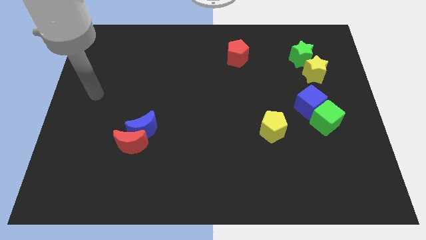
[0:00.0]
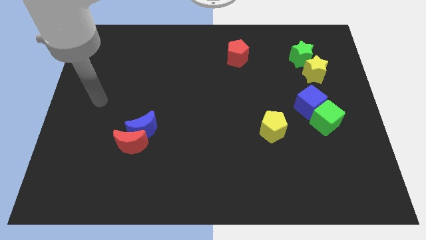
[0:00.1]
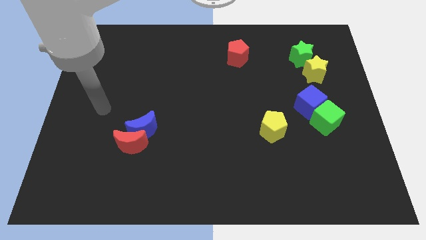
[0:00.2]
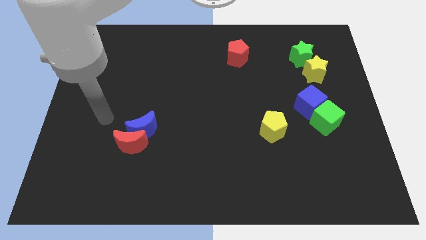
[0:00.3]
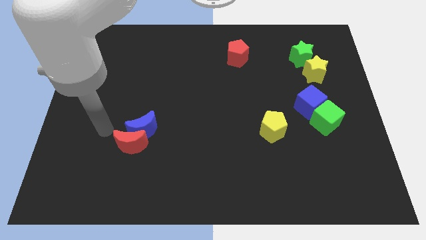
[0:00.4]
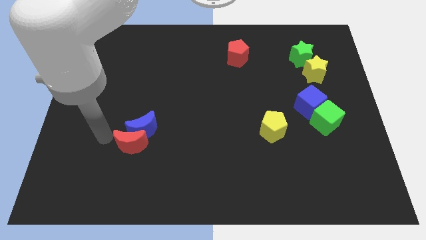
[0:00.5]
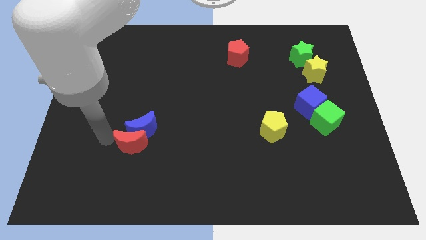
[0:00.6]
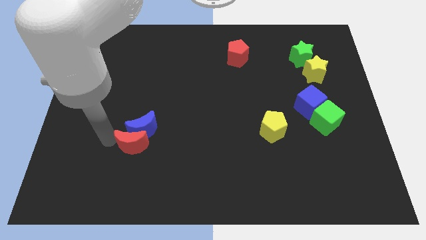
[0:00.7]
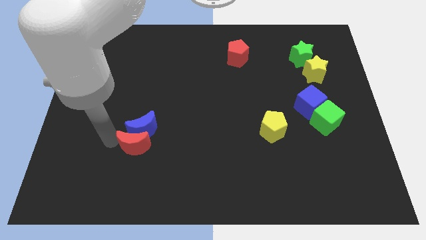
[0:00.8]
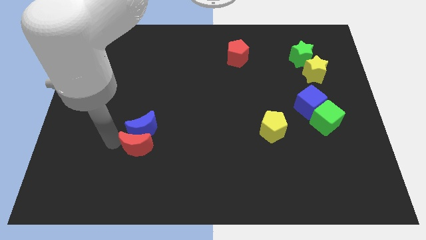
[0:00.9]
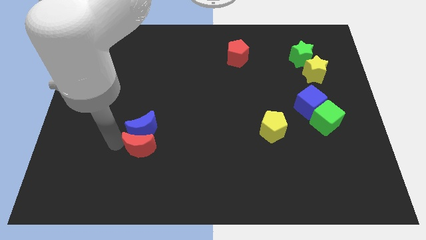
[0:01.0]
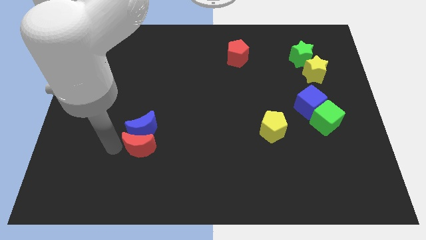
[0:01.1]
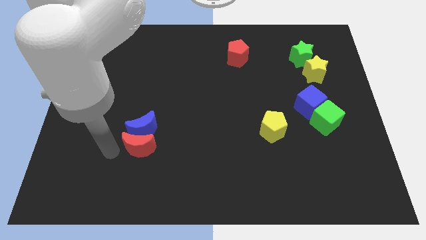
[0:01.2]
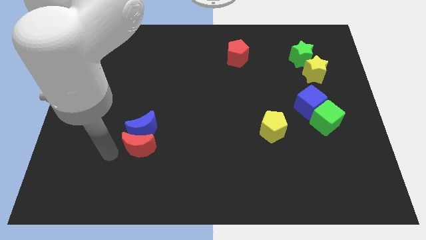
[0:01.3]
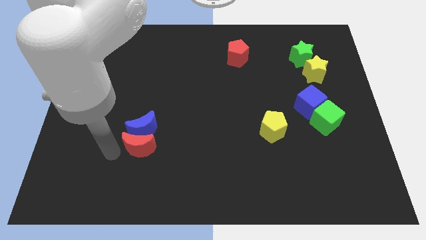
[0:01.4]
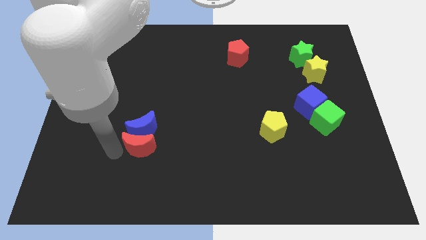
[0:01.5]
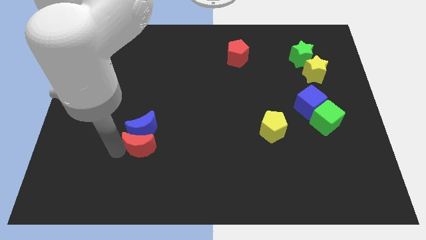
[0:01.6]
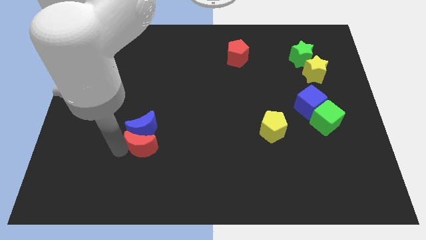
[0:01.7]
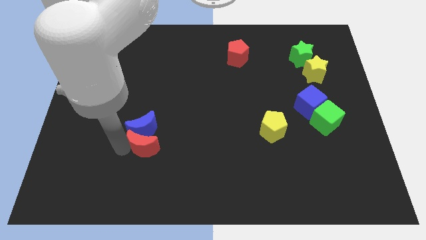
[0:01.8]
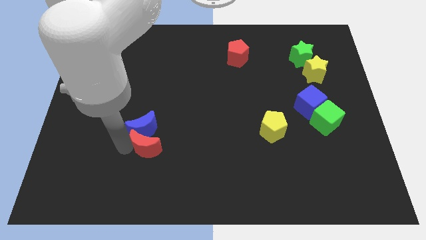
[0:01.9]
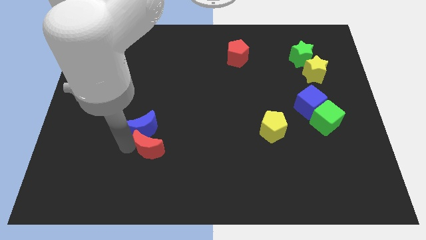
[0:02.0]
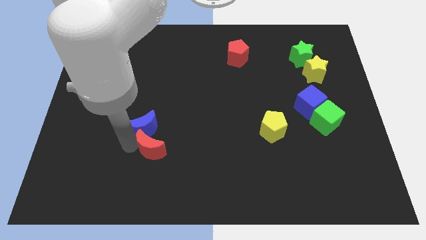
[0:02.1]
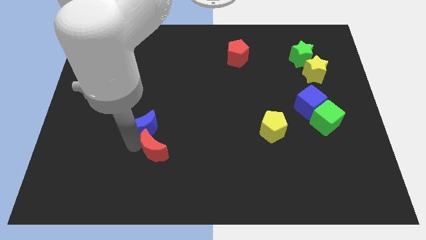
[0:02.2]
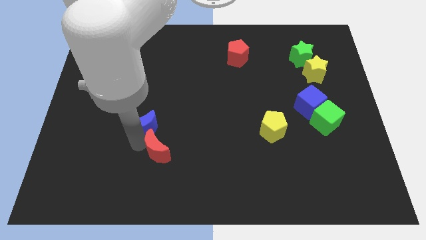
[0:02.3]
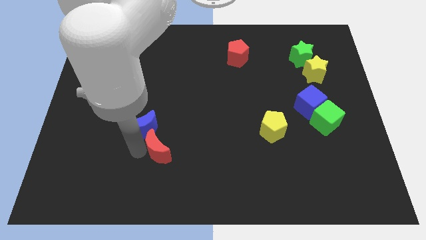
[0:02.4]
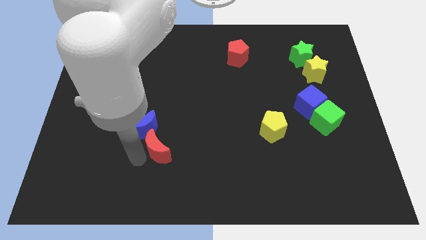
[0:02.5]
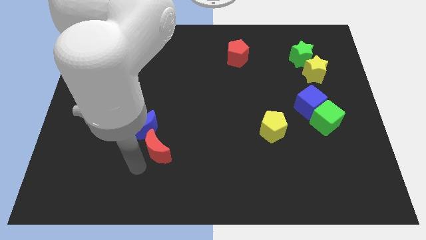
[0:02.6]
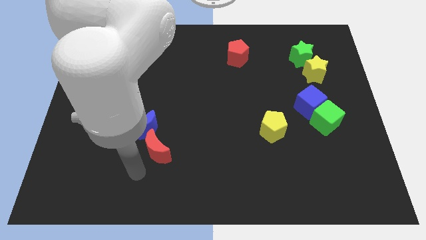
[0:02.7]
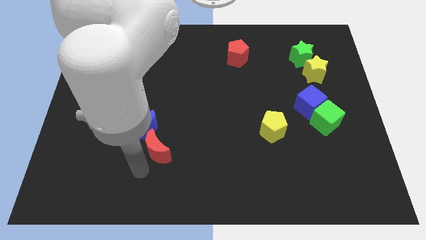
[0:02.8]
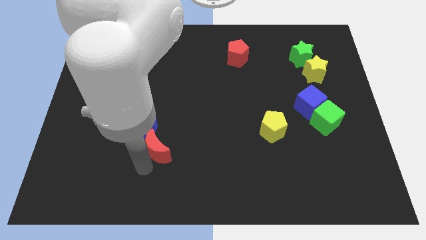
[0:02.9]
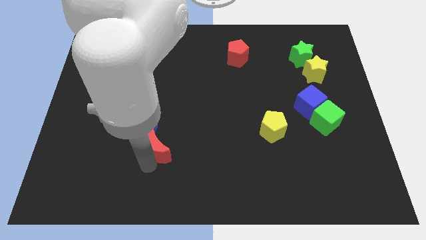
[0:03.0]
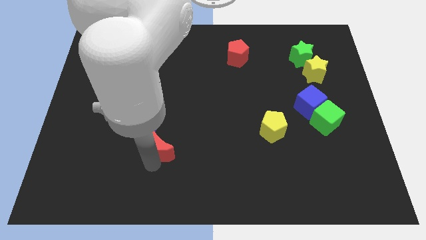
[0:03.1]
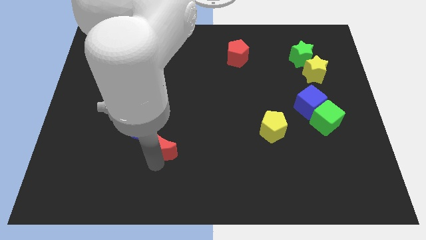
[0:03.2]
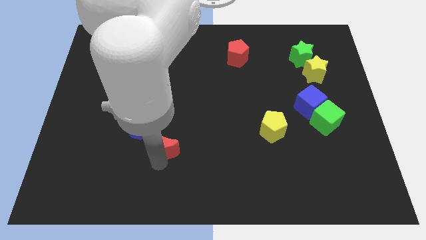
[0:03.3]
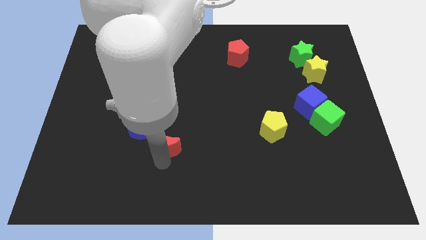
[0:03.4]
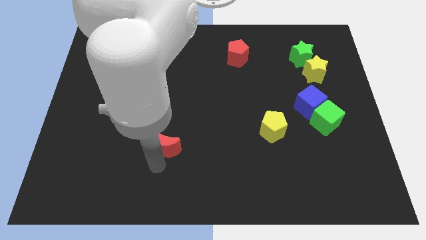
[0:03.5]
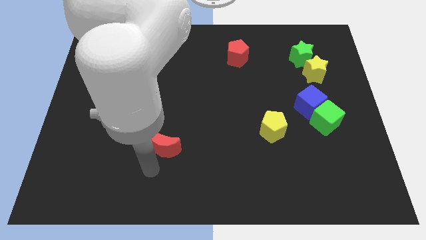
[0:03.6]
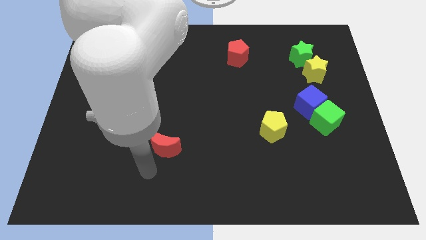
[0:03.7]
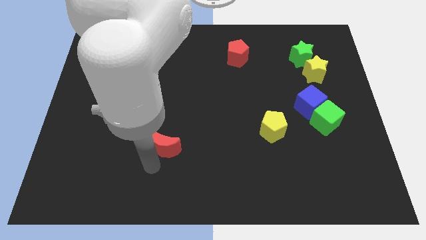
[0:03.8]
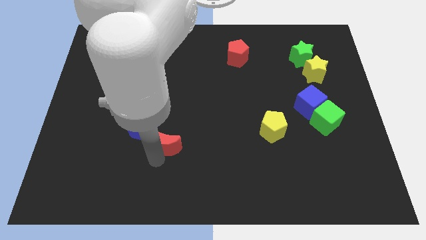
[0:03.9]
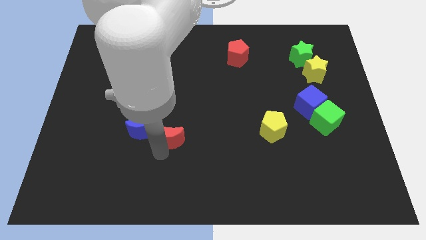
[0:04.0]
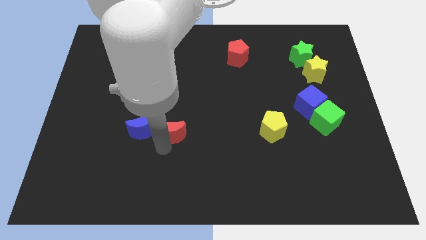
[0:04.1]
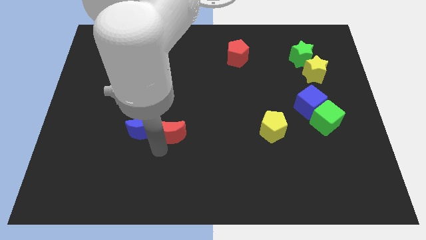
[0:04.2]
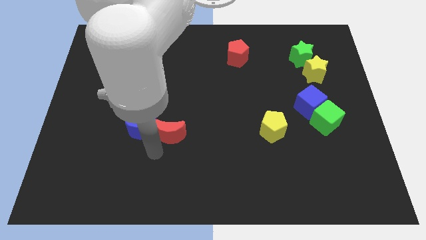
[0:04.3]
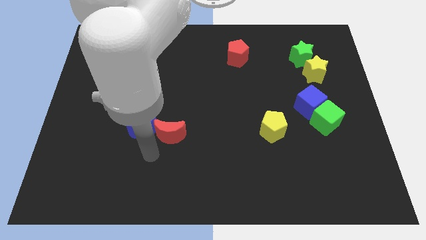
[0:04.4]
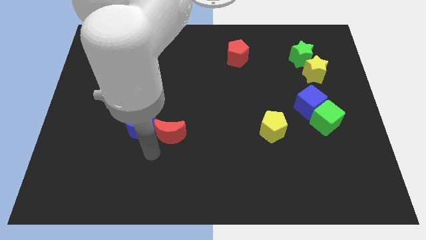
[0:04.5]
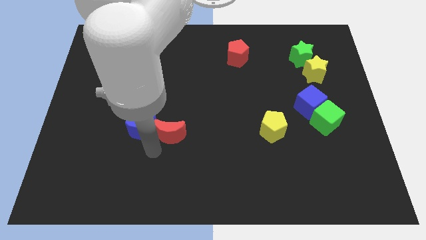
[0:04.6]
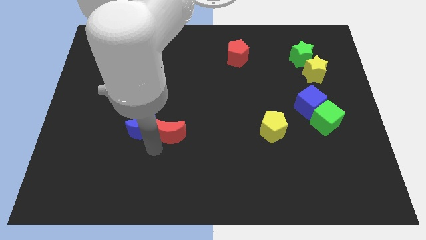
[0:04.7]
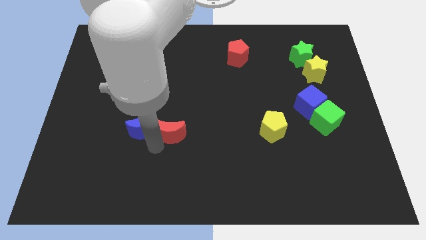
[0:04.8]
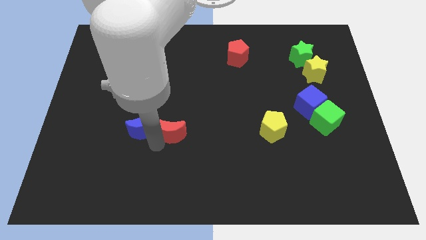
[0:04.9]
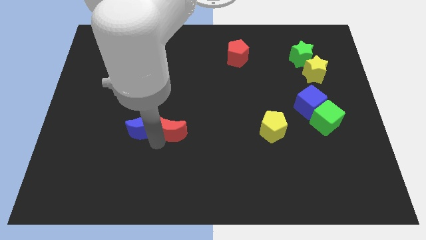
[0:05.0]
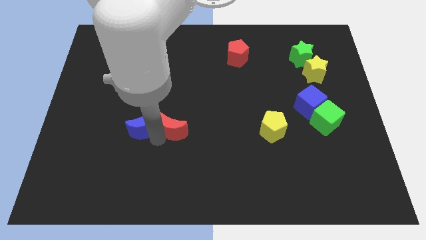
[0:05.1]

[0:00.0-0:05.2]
move the red moon to the middle

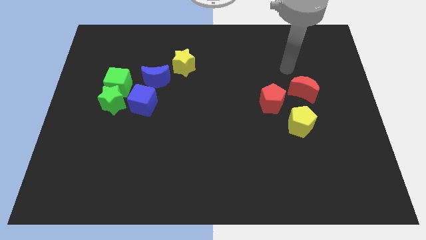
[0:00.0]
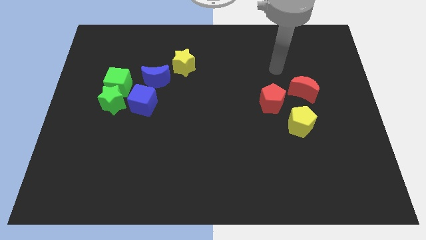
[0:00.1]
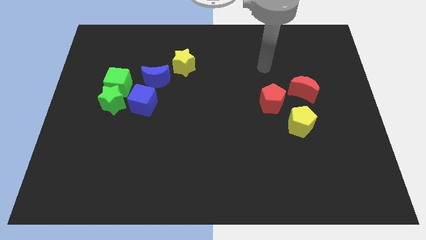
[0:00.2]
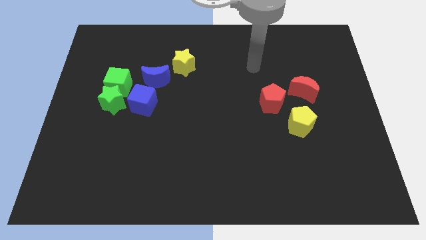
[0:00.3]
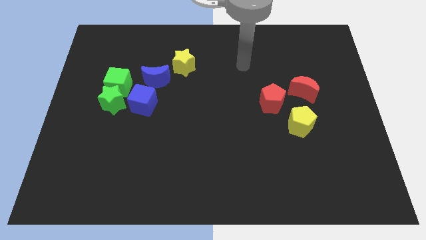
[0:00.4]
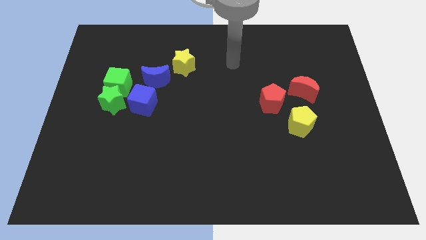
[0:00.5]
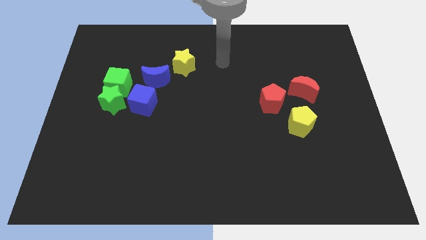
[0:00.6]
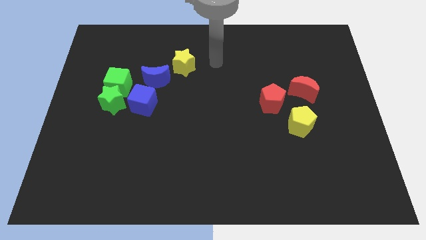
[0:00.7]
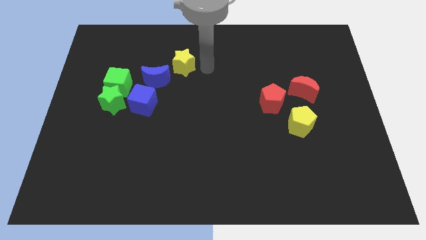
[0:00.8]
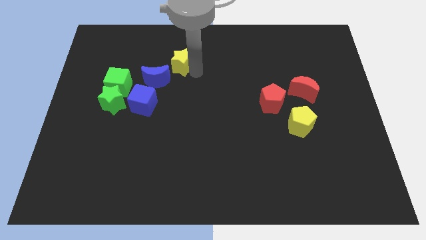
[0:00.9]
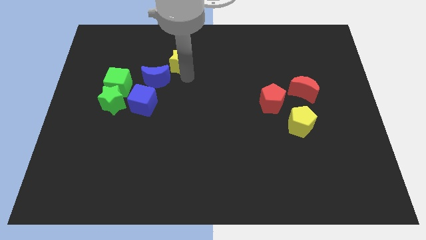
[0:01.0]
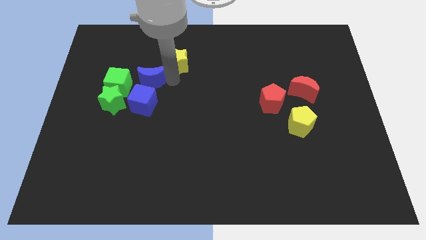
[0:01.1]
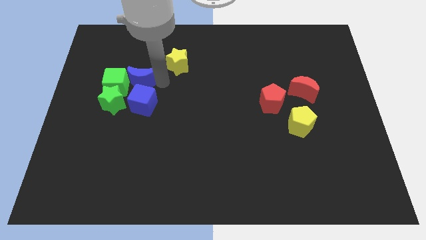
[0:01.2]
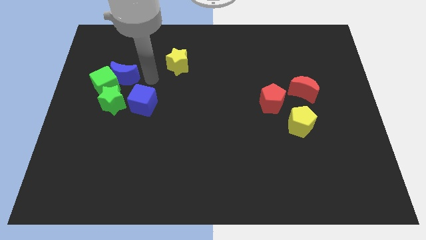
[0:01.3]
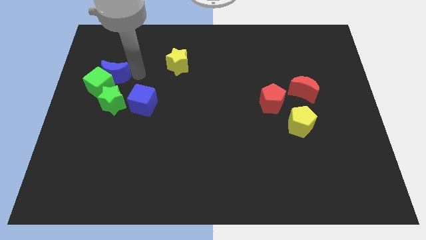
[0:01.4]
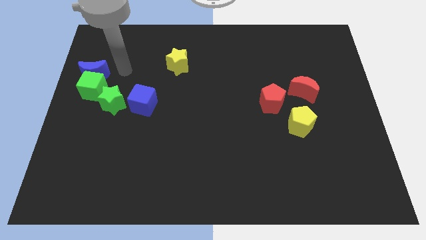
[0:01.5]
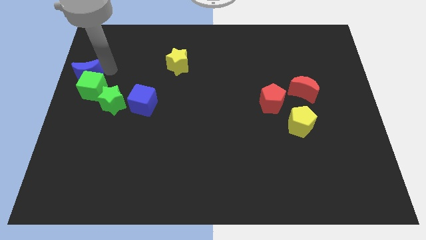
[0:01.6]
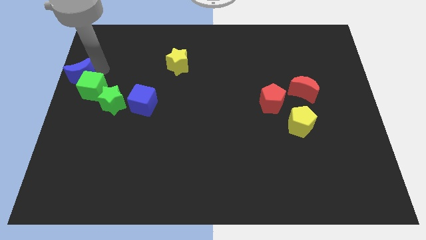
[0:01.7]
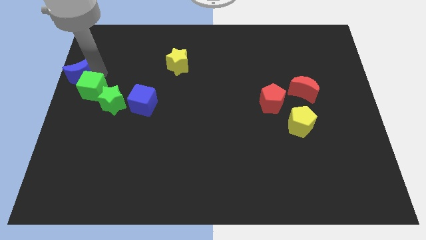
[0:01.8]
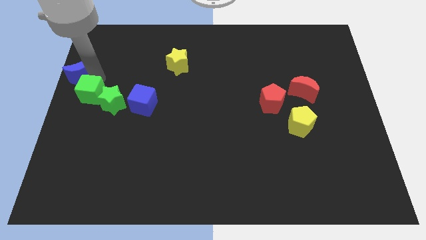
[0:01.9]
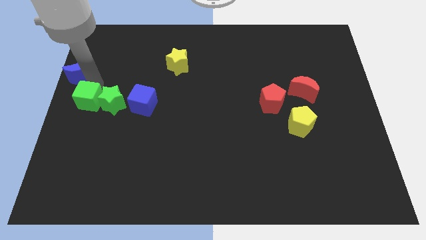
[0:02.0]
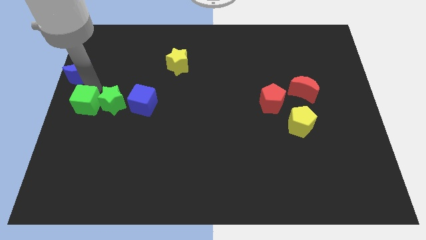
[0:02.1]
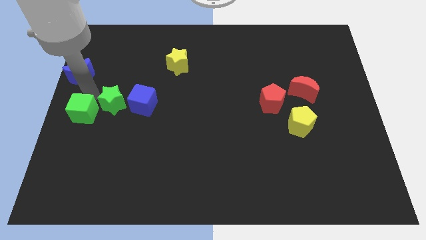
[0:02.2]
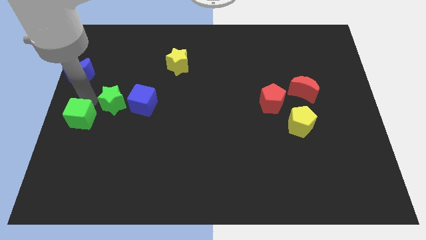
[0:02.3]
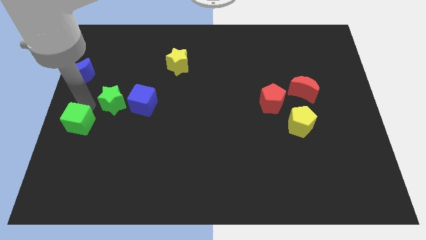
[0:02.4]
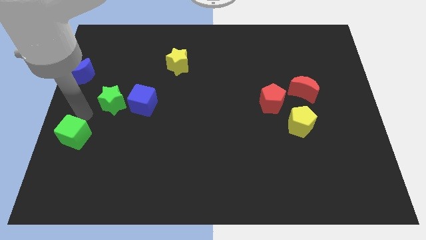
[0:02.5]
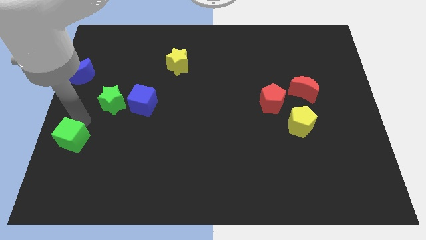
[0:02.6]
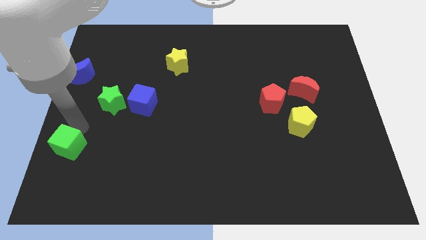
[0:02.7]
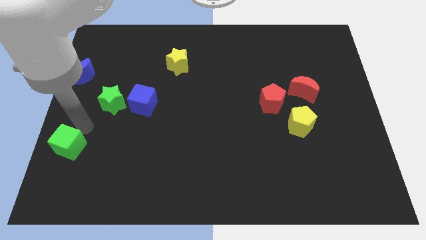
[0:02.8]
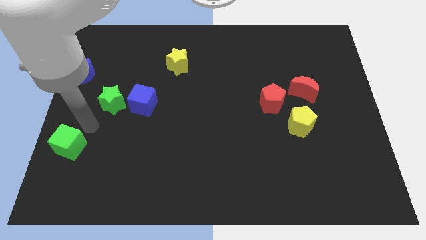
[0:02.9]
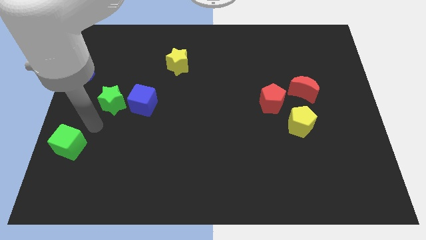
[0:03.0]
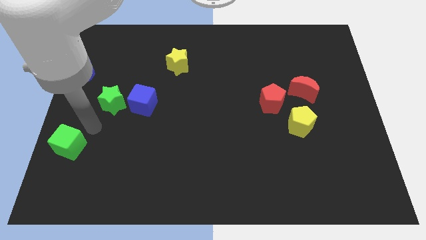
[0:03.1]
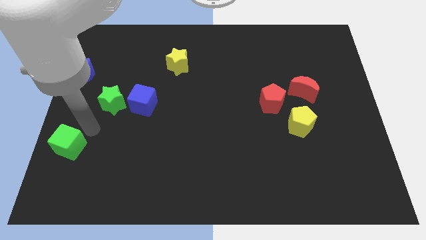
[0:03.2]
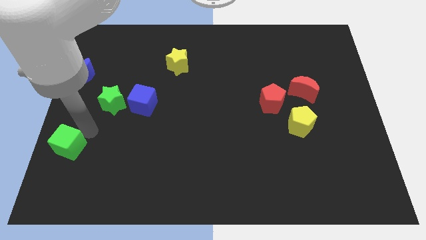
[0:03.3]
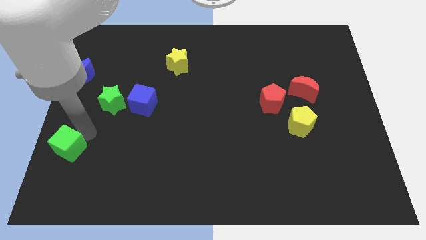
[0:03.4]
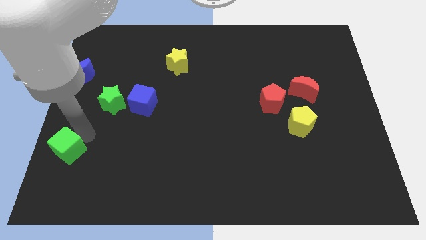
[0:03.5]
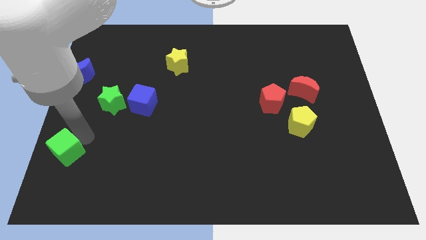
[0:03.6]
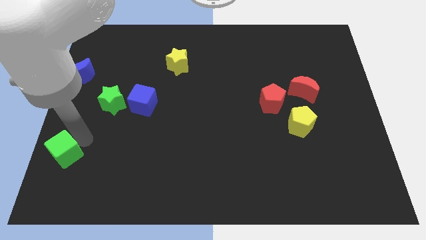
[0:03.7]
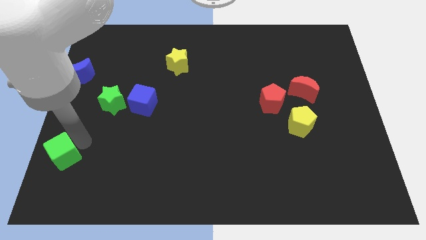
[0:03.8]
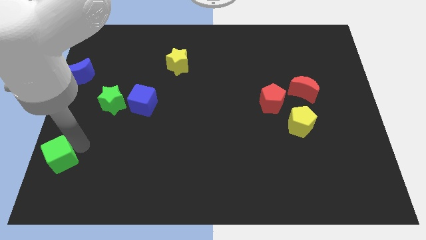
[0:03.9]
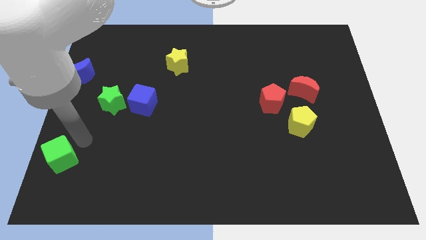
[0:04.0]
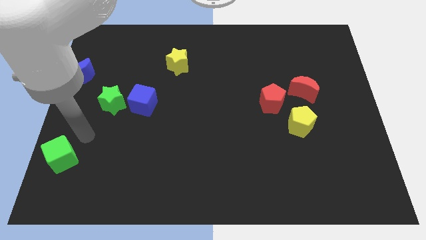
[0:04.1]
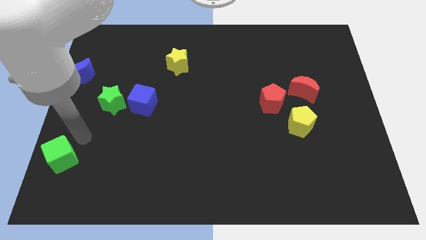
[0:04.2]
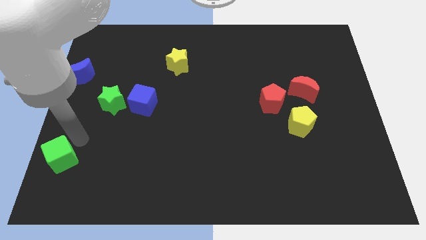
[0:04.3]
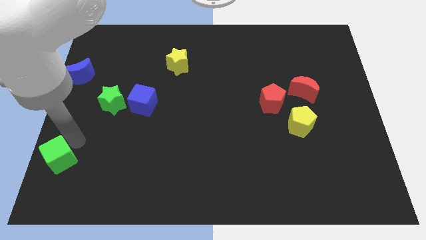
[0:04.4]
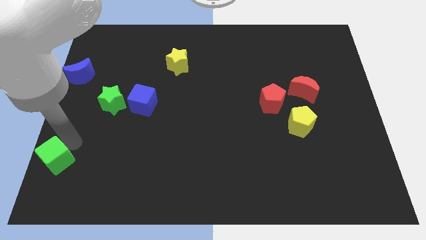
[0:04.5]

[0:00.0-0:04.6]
slide the green cube to the lower left corner
